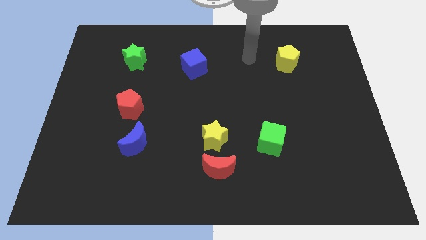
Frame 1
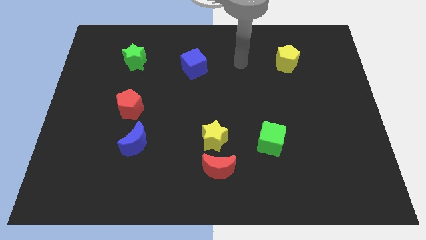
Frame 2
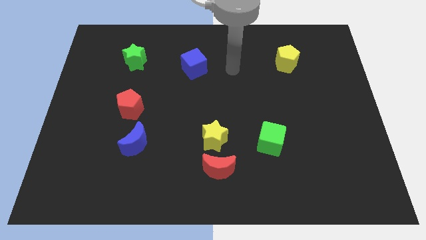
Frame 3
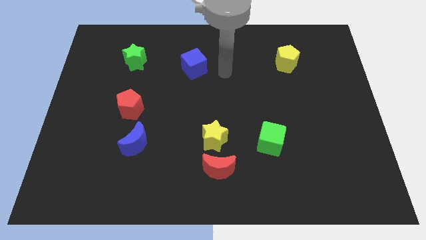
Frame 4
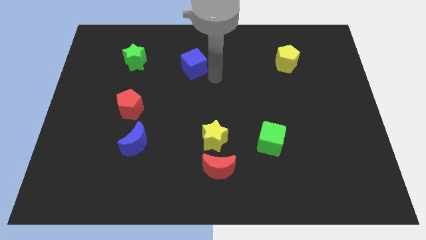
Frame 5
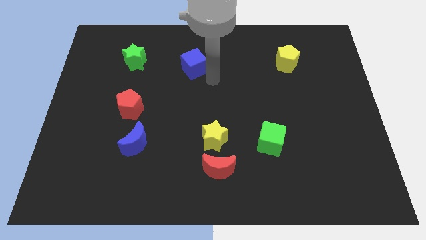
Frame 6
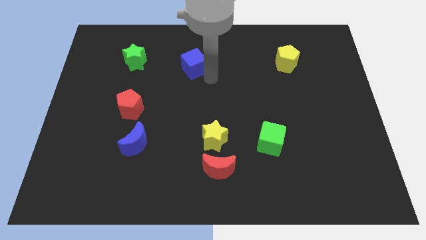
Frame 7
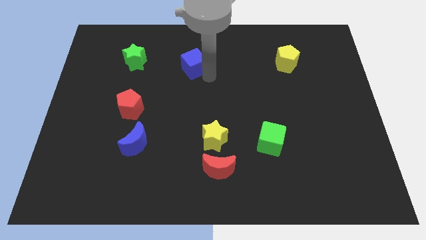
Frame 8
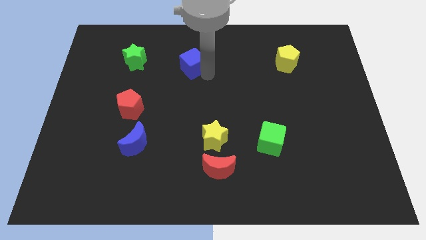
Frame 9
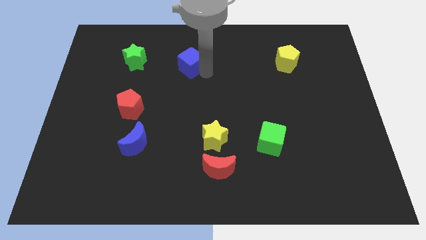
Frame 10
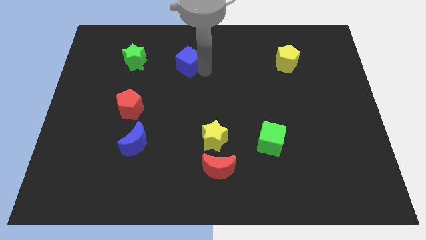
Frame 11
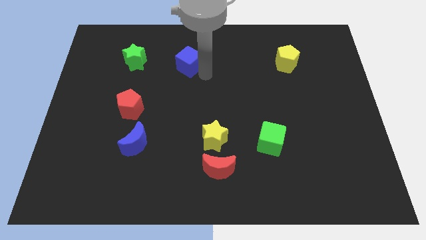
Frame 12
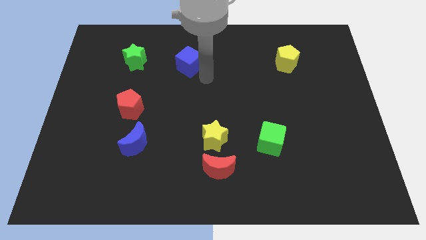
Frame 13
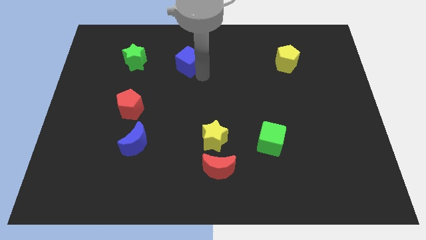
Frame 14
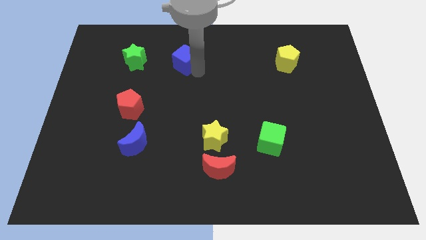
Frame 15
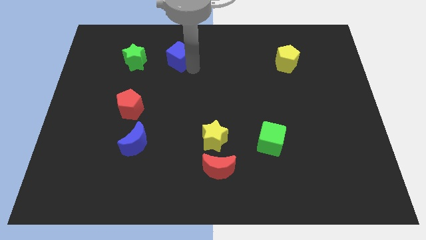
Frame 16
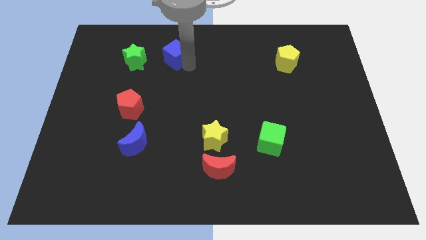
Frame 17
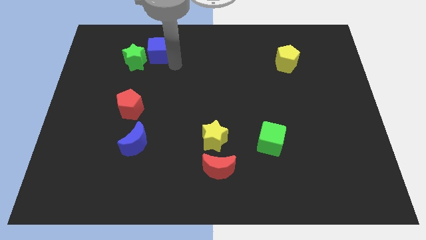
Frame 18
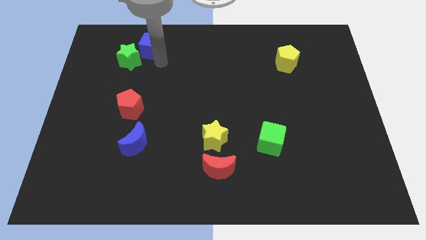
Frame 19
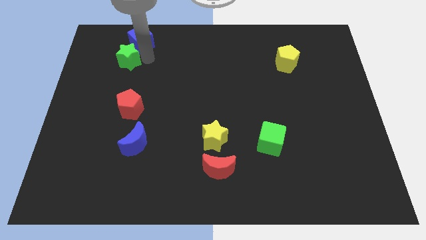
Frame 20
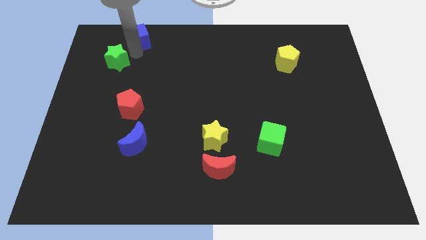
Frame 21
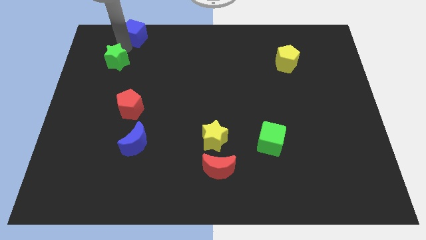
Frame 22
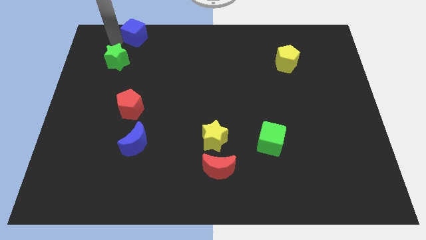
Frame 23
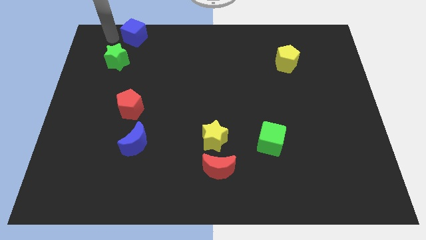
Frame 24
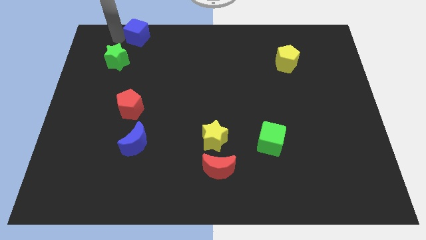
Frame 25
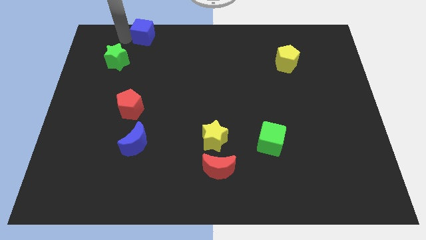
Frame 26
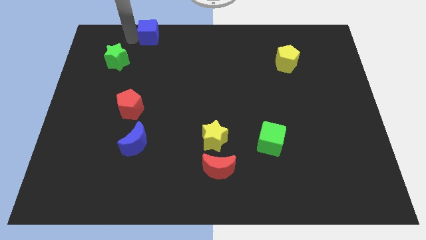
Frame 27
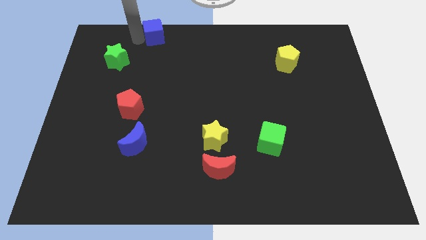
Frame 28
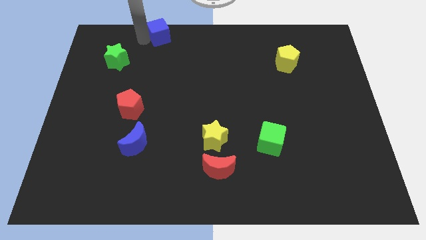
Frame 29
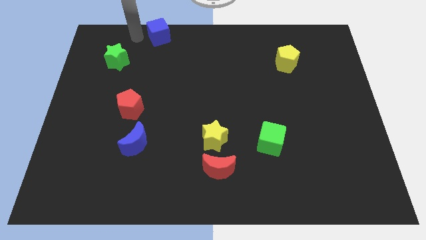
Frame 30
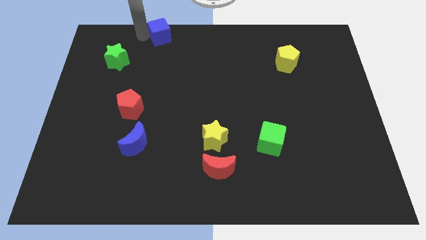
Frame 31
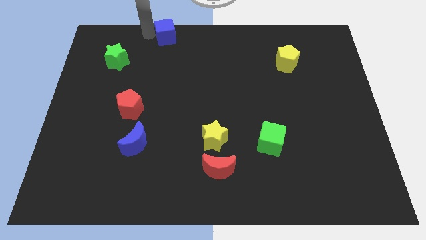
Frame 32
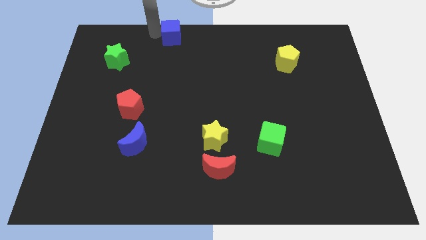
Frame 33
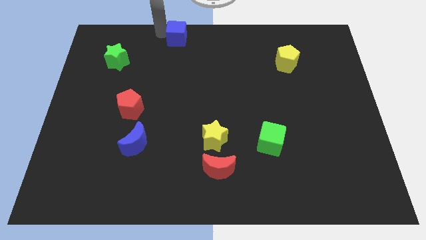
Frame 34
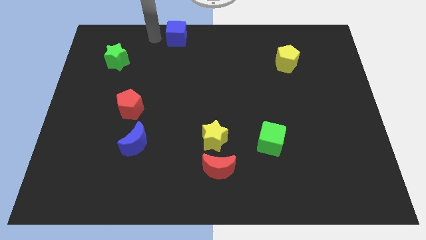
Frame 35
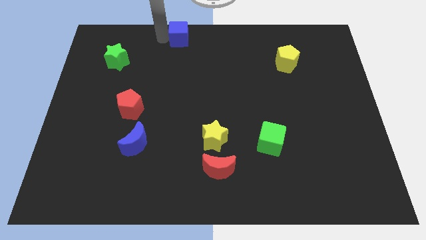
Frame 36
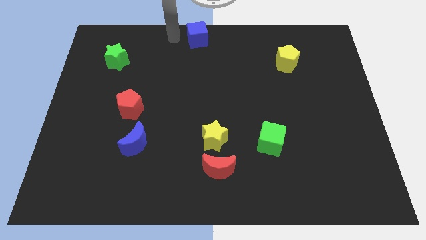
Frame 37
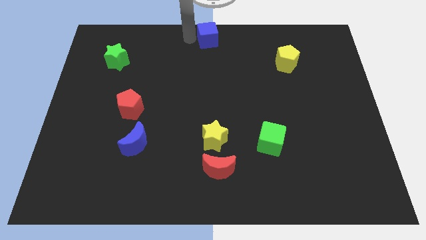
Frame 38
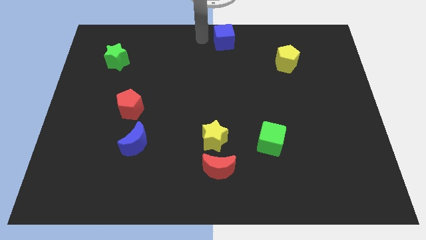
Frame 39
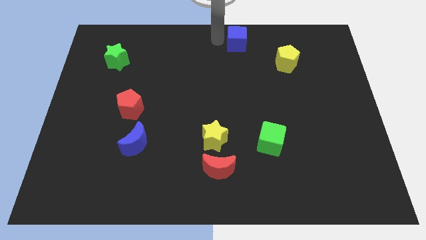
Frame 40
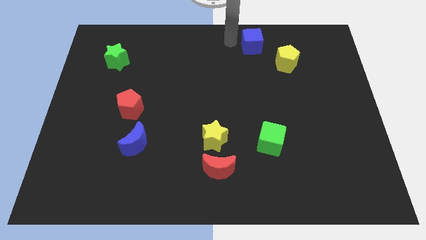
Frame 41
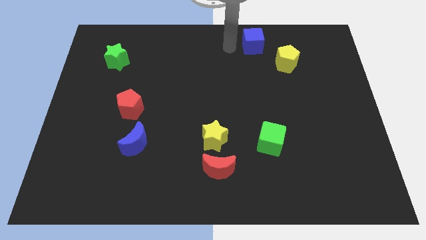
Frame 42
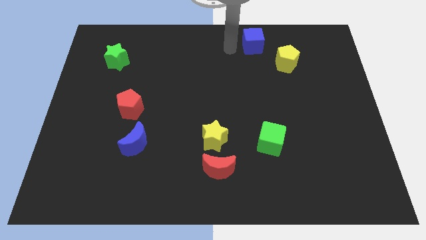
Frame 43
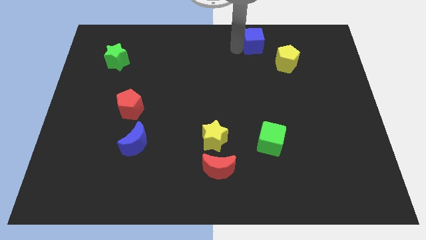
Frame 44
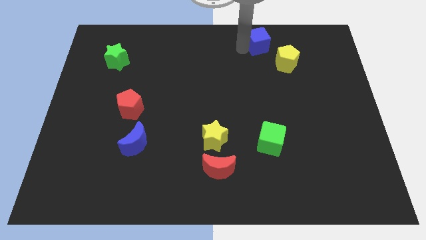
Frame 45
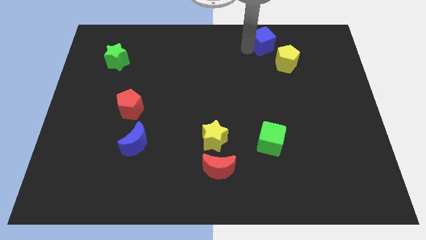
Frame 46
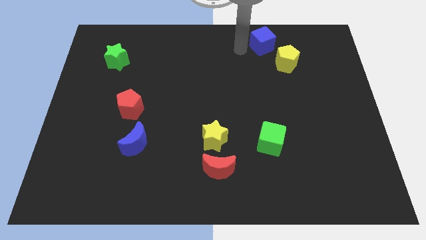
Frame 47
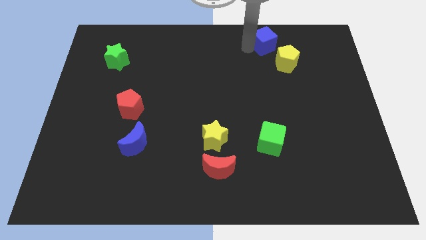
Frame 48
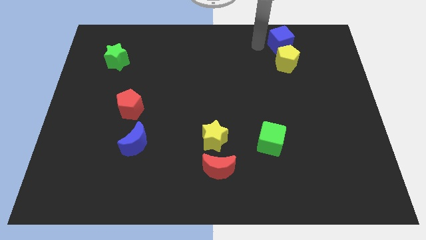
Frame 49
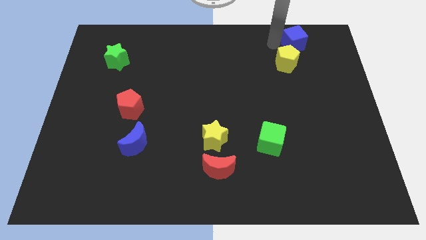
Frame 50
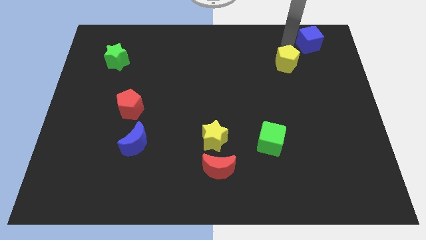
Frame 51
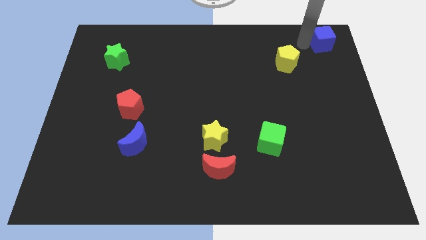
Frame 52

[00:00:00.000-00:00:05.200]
slide the blue cube to the top right

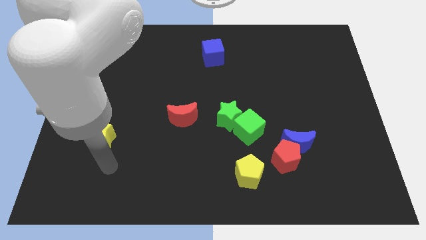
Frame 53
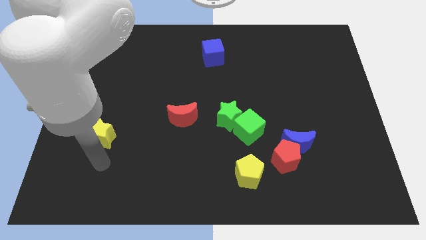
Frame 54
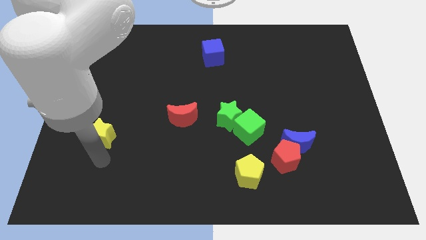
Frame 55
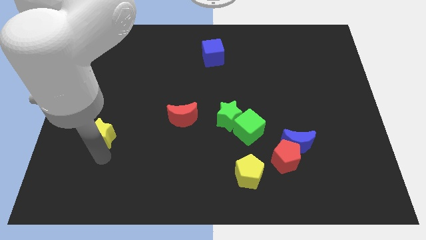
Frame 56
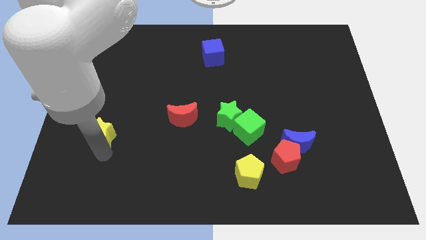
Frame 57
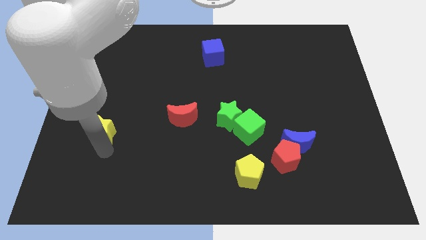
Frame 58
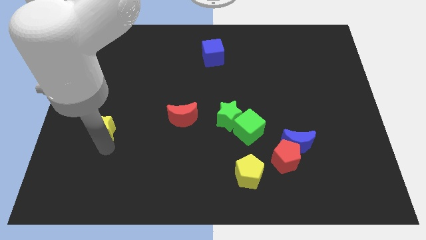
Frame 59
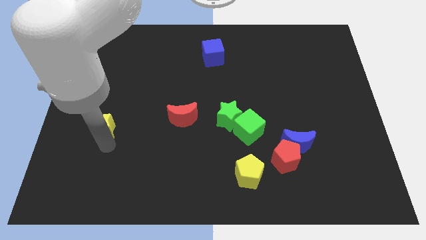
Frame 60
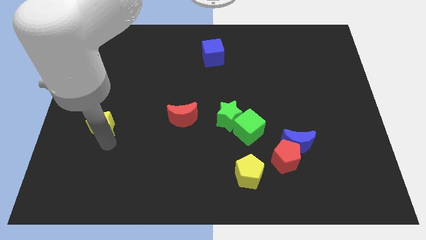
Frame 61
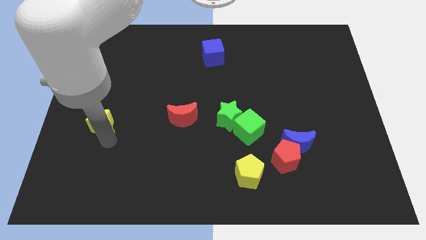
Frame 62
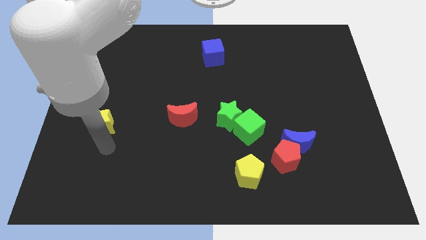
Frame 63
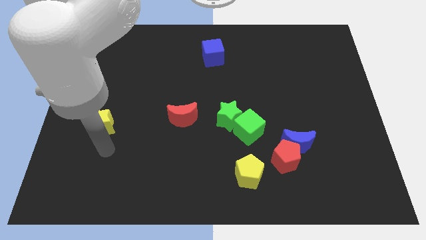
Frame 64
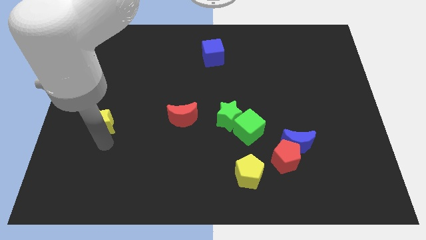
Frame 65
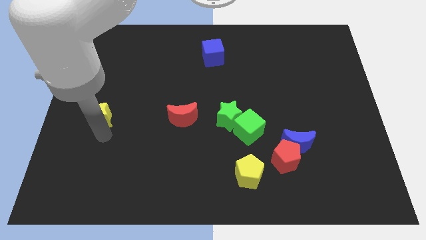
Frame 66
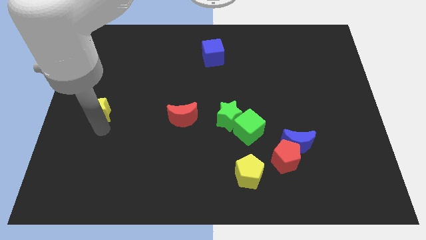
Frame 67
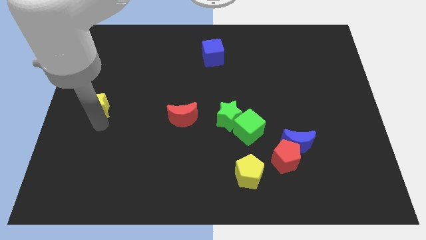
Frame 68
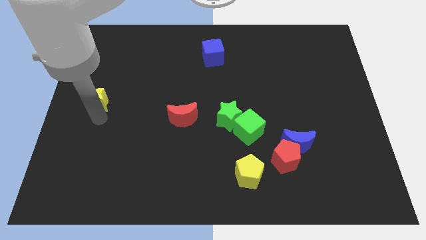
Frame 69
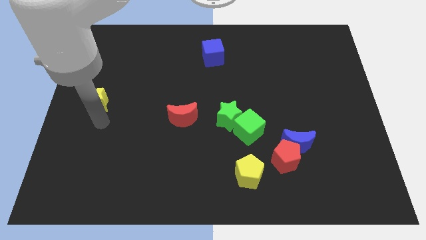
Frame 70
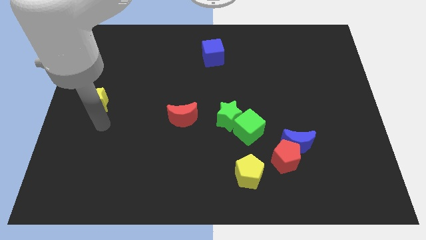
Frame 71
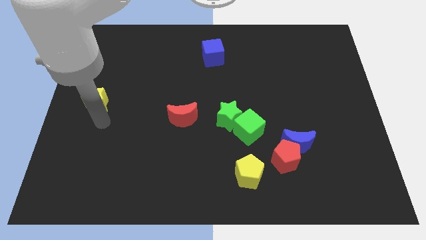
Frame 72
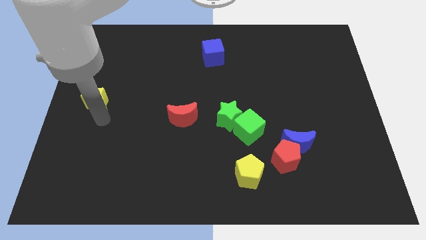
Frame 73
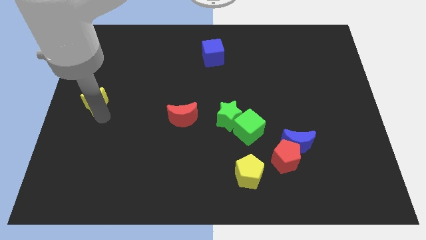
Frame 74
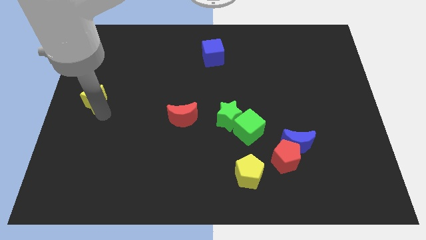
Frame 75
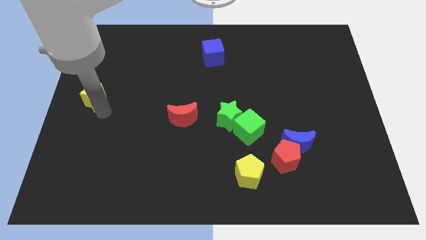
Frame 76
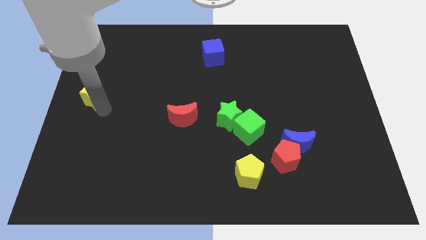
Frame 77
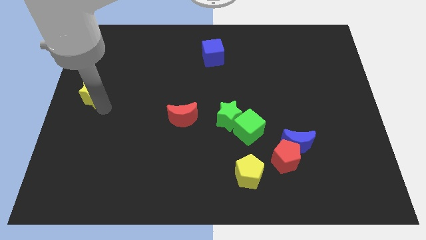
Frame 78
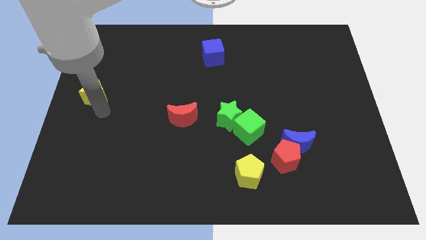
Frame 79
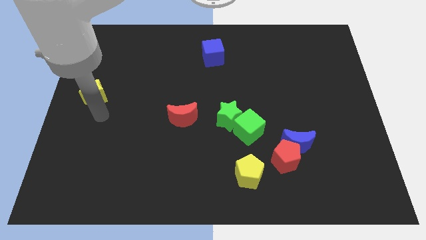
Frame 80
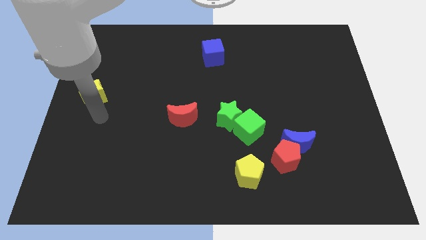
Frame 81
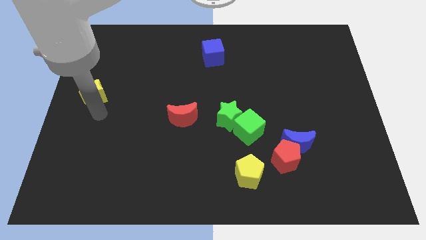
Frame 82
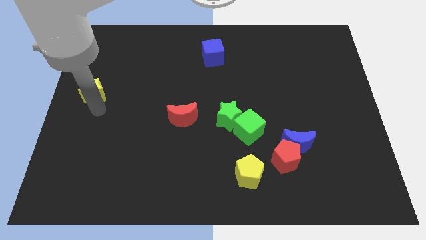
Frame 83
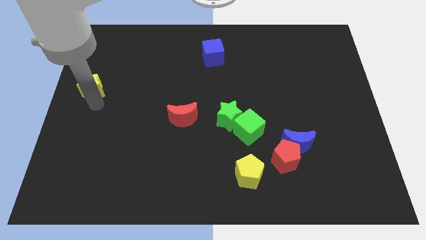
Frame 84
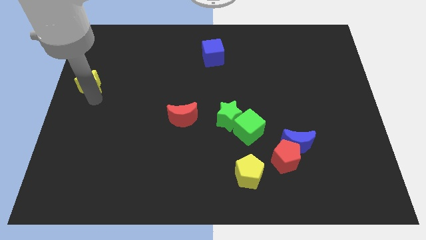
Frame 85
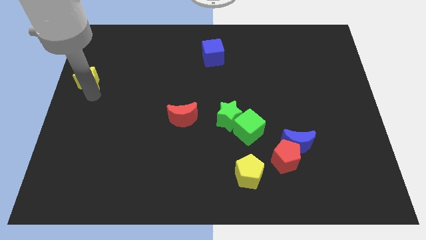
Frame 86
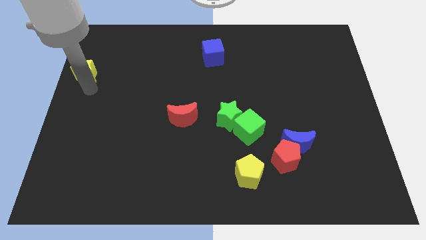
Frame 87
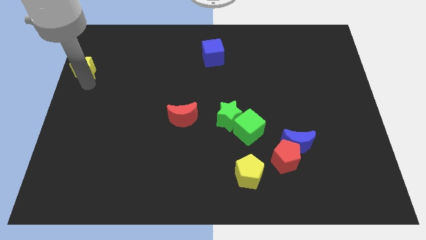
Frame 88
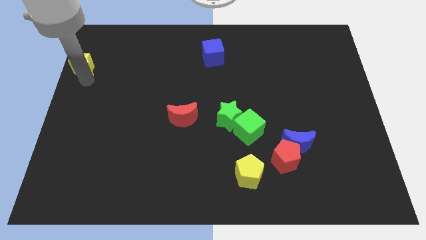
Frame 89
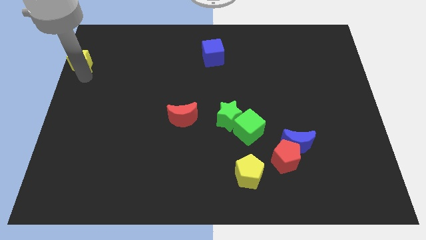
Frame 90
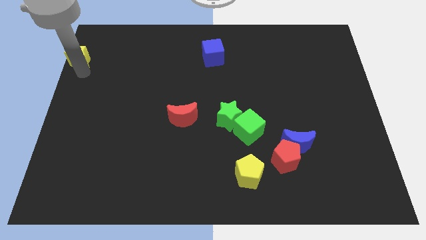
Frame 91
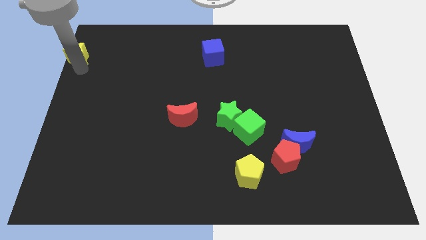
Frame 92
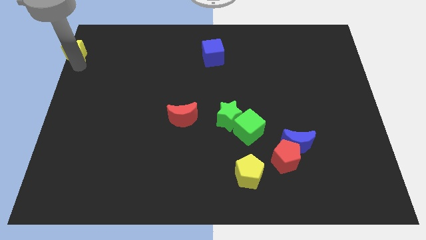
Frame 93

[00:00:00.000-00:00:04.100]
push the yellow star to the top left corner
